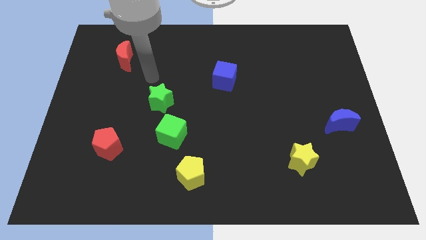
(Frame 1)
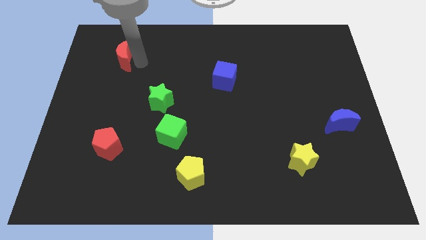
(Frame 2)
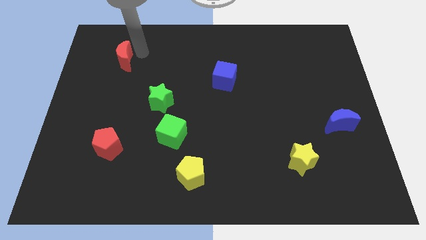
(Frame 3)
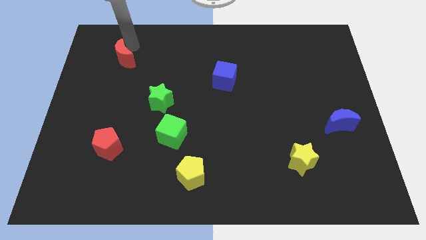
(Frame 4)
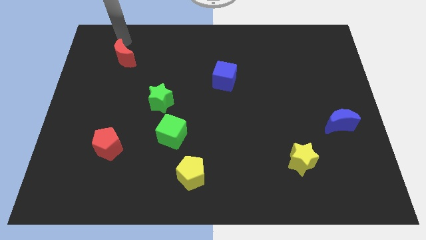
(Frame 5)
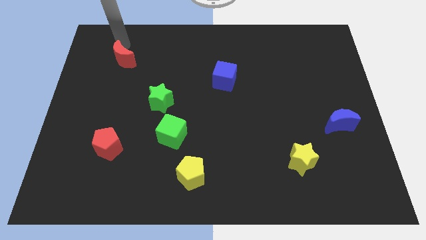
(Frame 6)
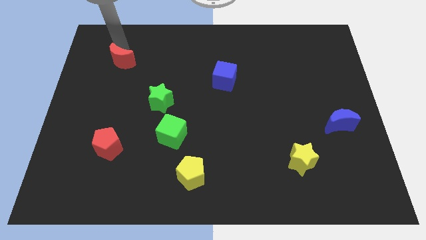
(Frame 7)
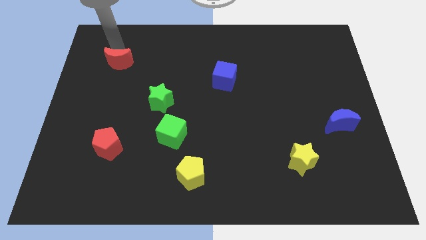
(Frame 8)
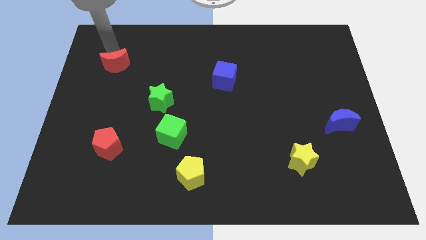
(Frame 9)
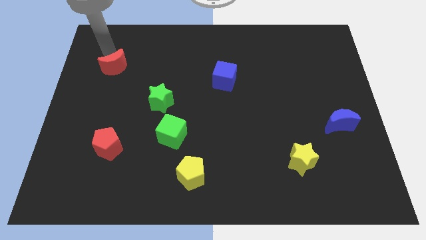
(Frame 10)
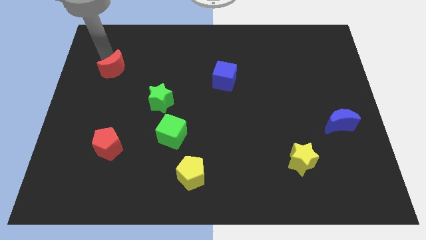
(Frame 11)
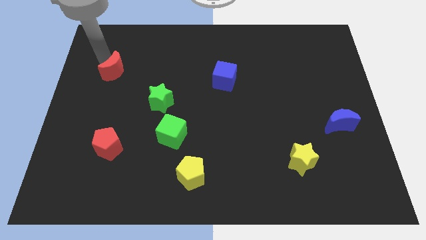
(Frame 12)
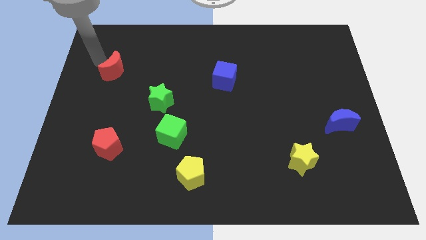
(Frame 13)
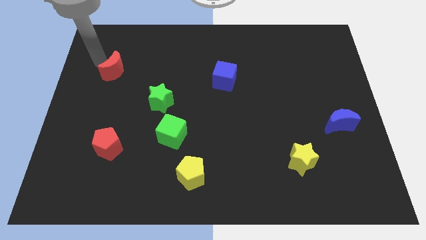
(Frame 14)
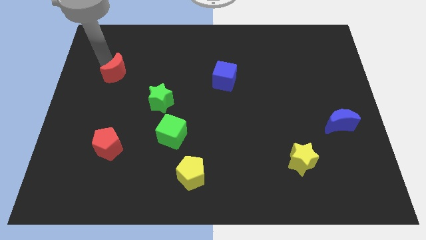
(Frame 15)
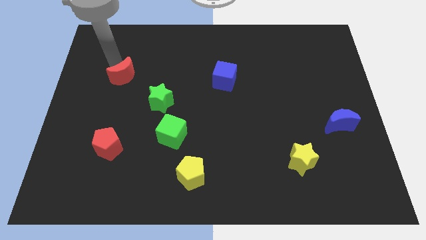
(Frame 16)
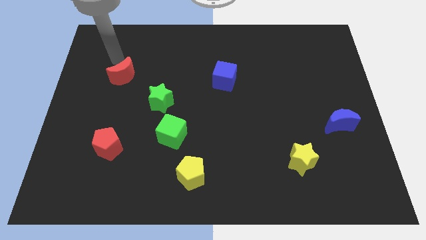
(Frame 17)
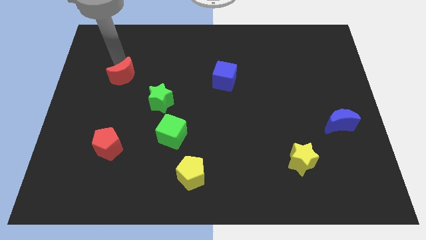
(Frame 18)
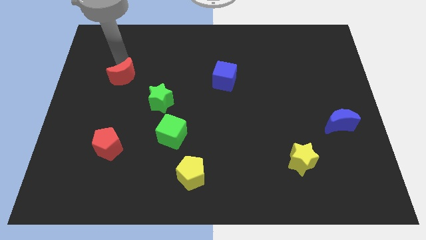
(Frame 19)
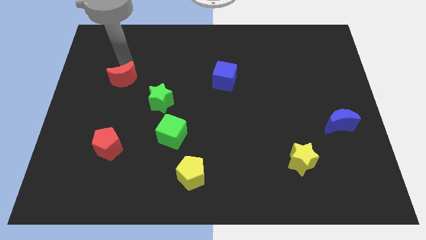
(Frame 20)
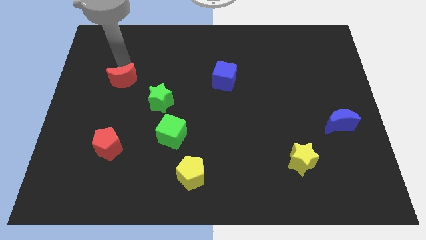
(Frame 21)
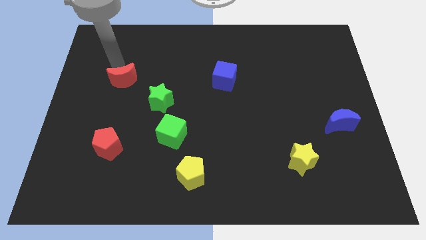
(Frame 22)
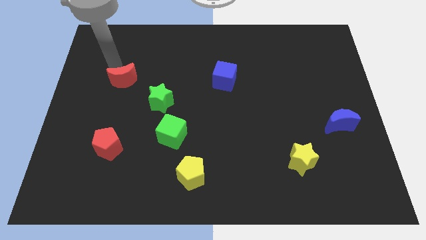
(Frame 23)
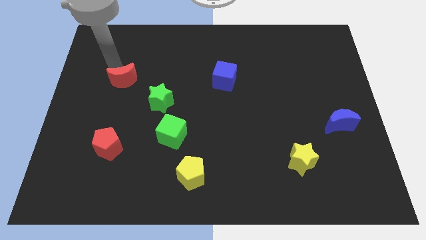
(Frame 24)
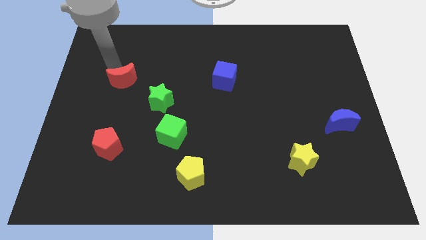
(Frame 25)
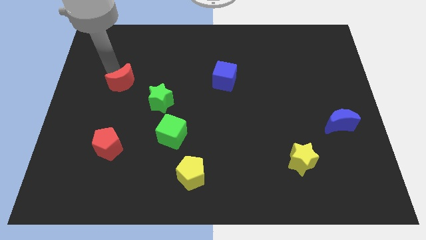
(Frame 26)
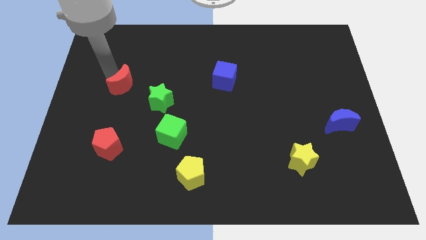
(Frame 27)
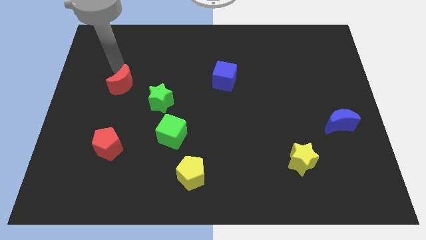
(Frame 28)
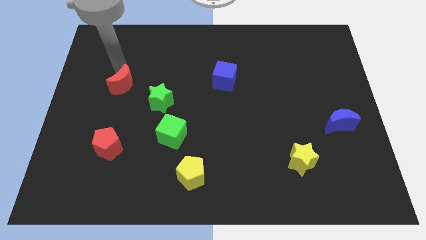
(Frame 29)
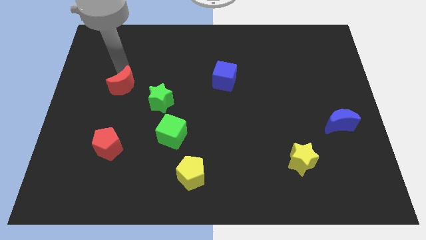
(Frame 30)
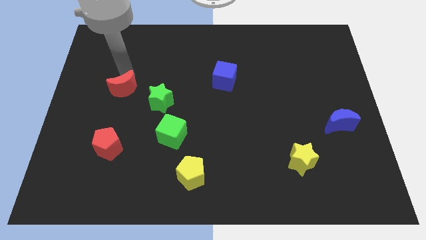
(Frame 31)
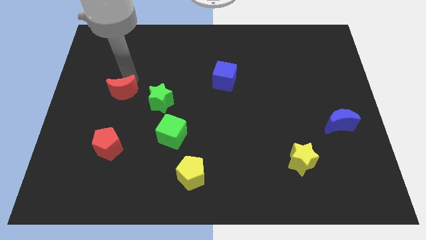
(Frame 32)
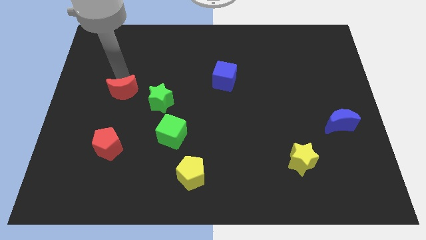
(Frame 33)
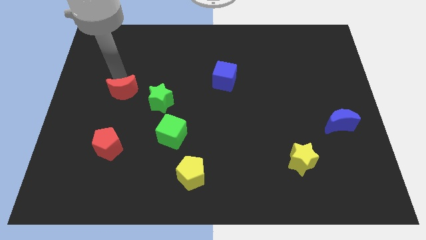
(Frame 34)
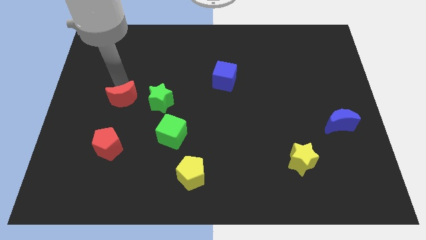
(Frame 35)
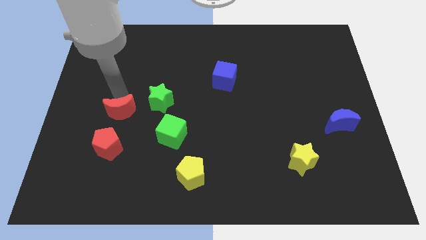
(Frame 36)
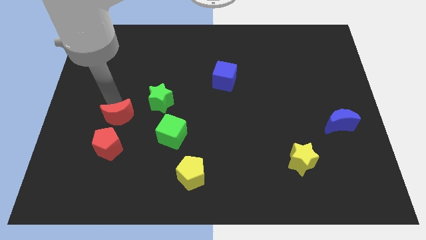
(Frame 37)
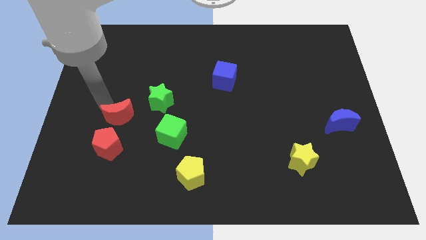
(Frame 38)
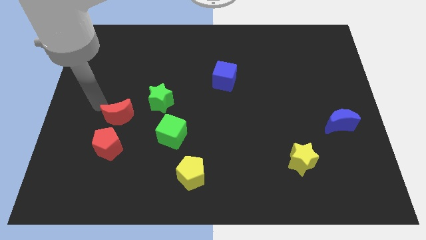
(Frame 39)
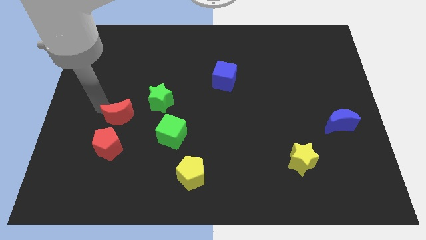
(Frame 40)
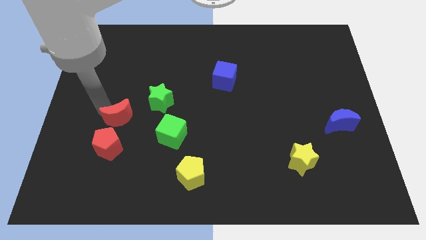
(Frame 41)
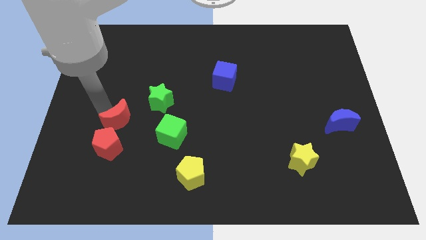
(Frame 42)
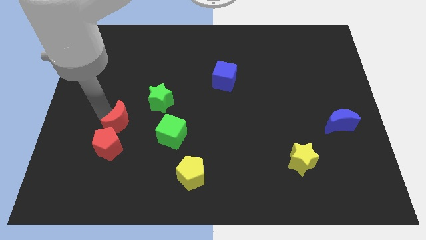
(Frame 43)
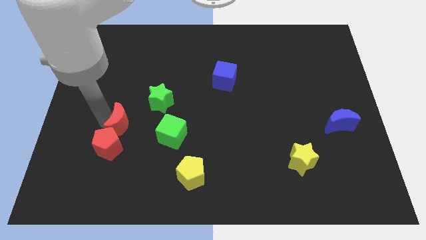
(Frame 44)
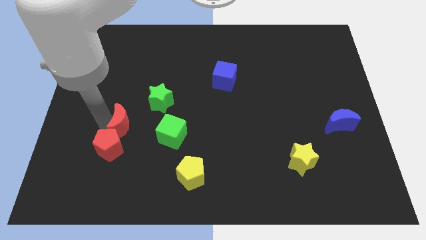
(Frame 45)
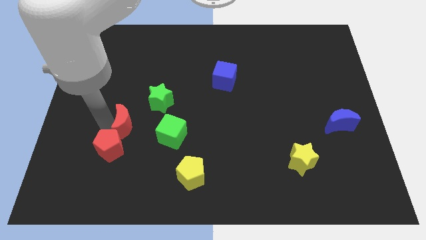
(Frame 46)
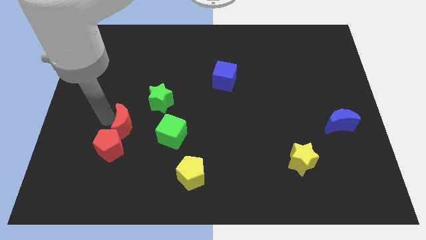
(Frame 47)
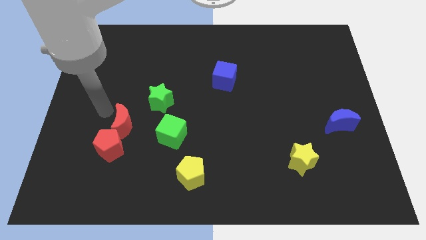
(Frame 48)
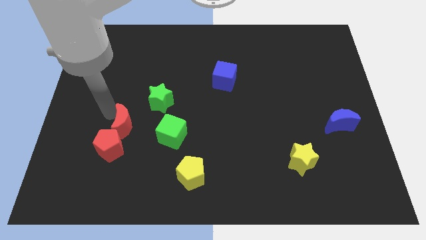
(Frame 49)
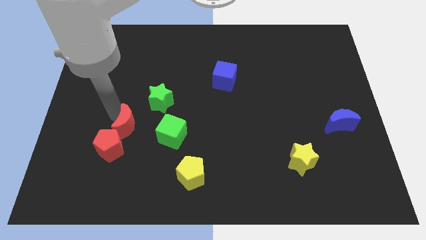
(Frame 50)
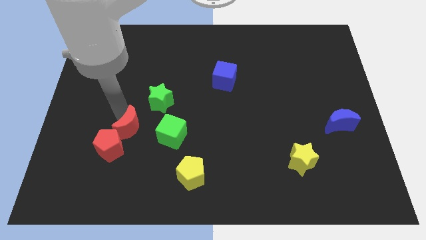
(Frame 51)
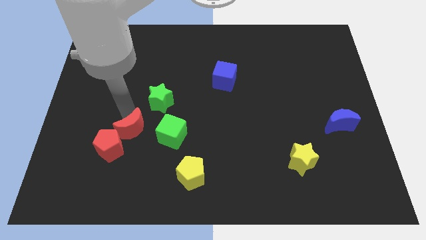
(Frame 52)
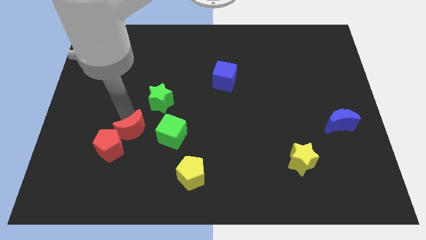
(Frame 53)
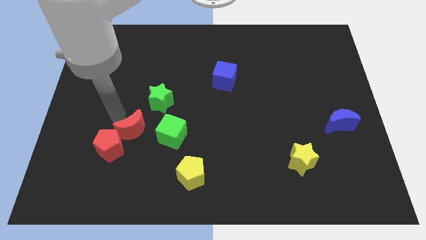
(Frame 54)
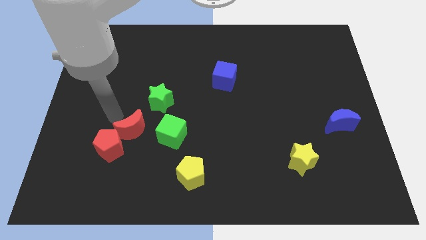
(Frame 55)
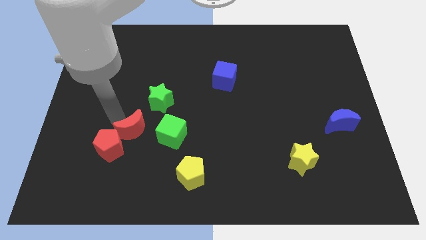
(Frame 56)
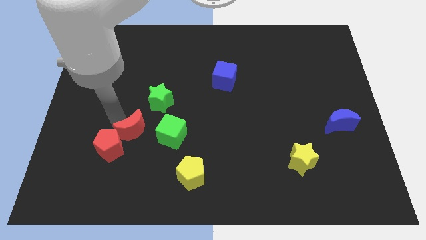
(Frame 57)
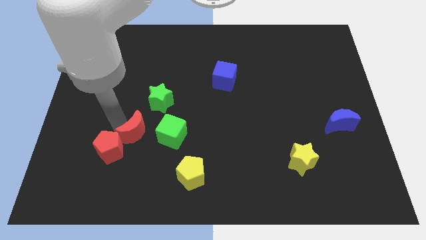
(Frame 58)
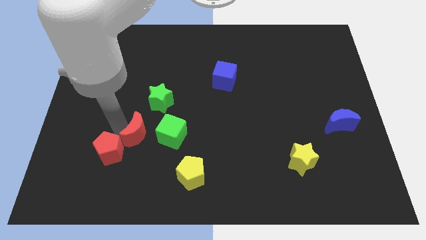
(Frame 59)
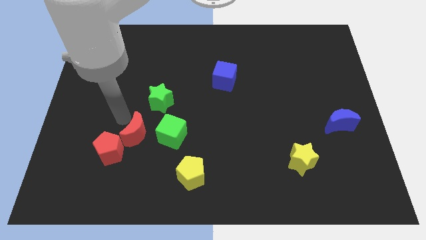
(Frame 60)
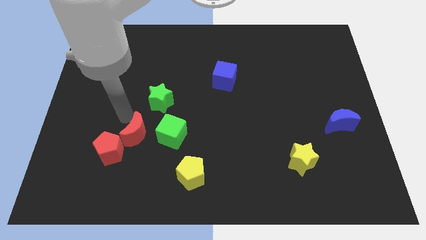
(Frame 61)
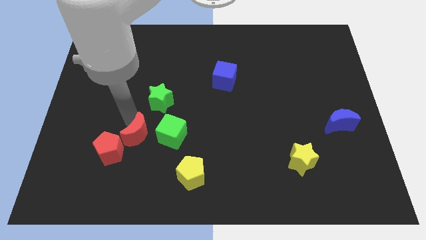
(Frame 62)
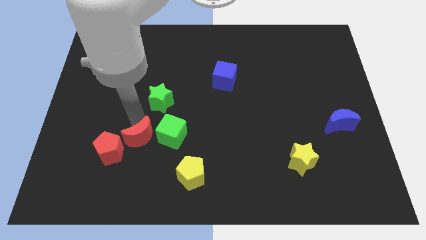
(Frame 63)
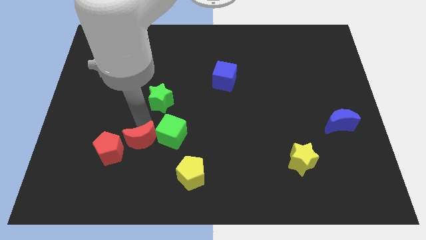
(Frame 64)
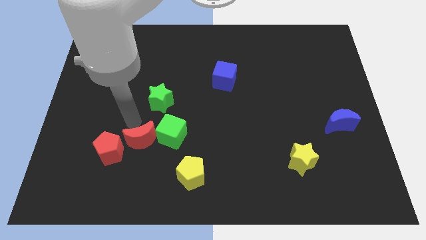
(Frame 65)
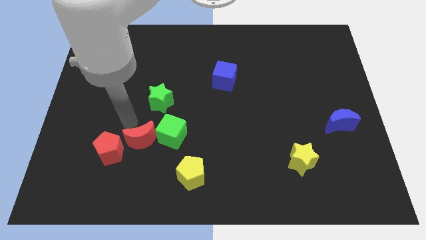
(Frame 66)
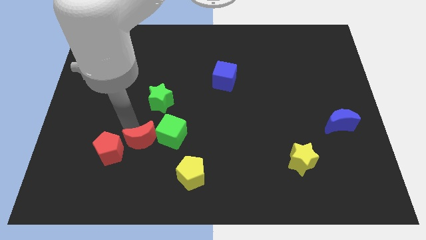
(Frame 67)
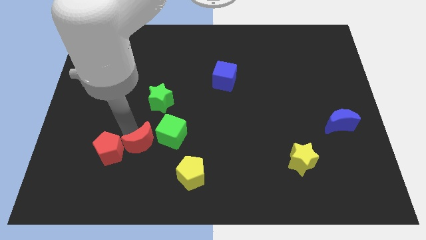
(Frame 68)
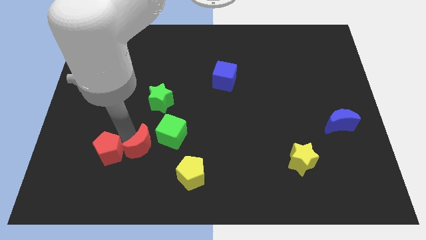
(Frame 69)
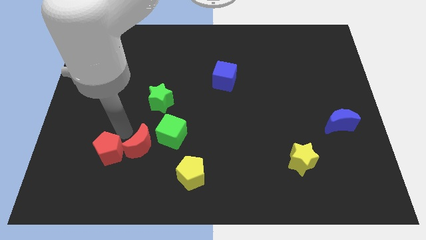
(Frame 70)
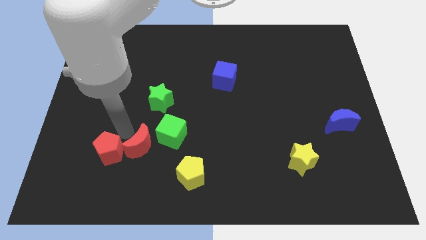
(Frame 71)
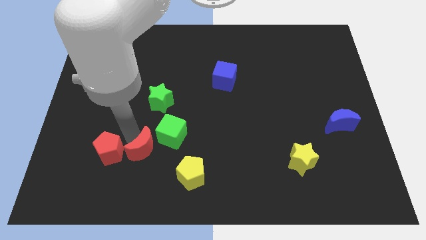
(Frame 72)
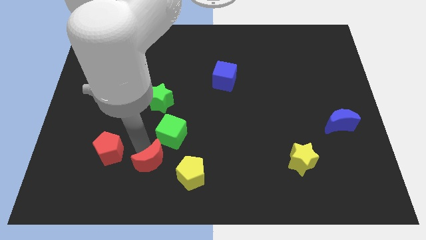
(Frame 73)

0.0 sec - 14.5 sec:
push the red moon to the bottom side of the green cube
